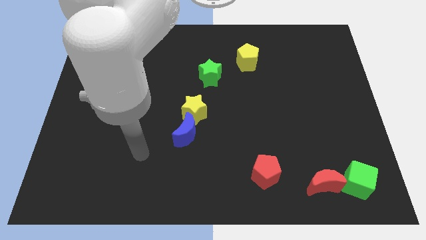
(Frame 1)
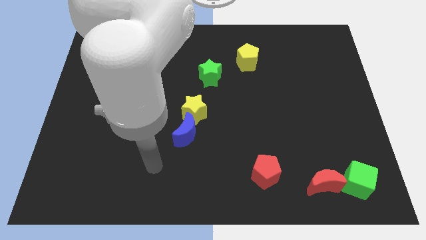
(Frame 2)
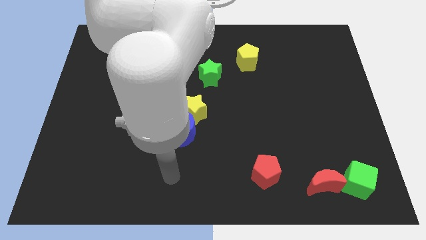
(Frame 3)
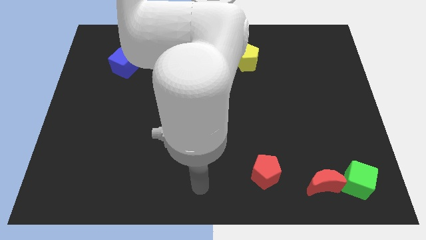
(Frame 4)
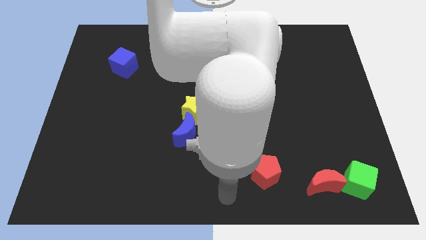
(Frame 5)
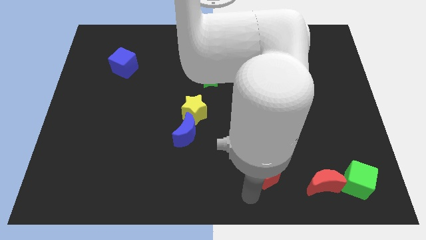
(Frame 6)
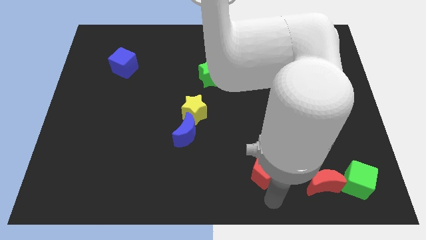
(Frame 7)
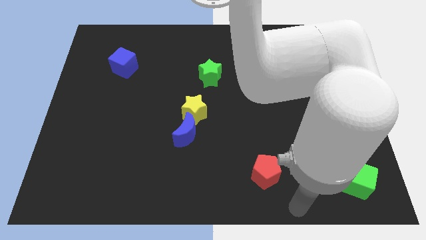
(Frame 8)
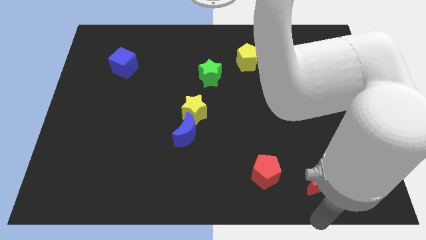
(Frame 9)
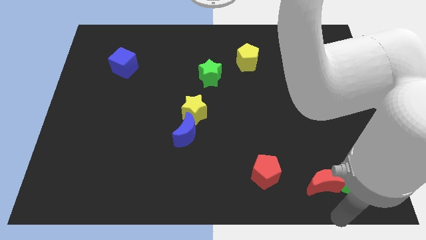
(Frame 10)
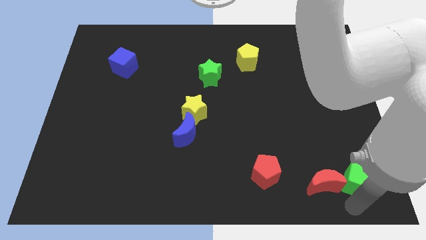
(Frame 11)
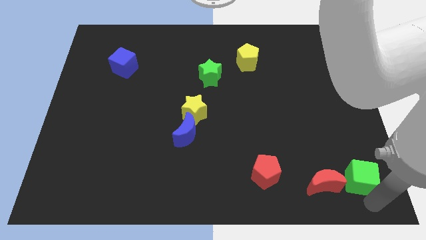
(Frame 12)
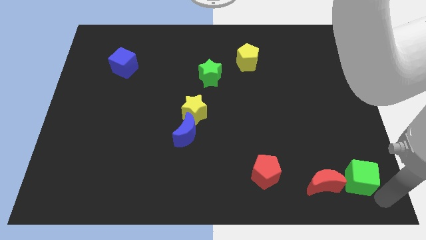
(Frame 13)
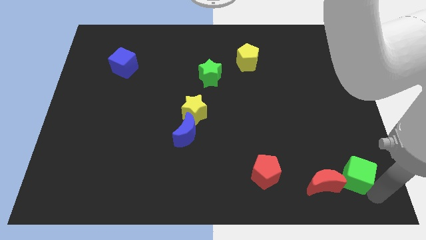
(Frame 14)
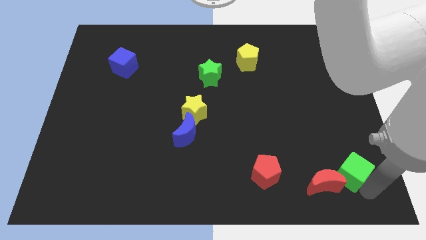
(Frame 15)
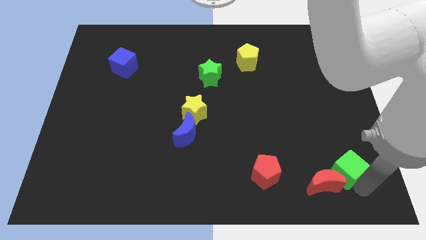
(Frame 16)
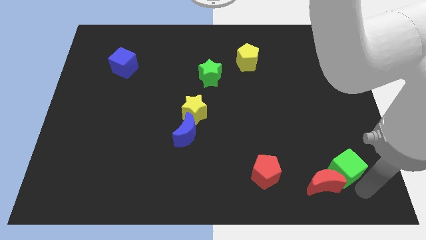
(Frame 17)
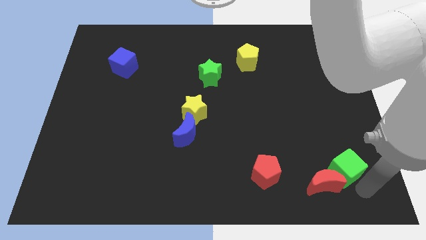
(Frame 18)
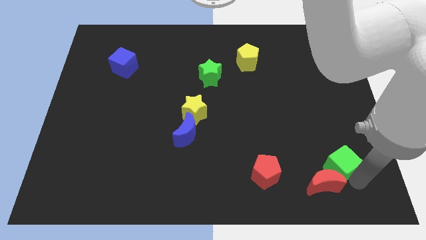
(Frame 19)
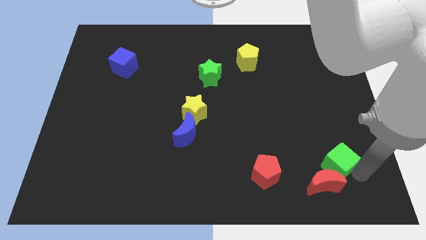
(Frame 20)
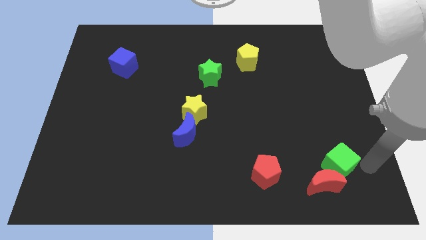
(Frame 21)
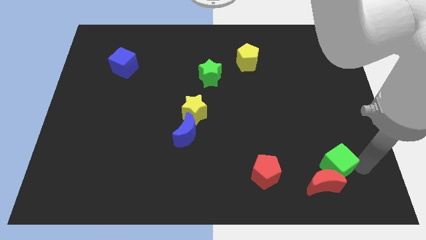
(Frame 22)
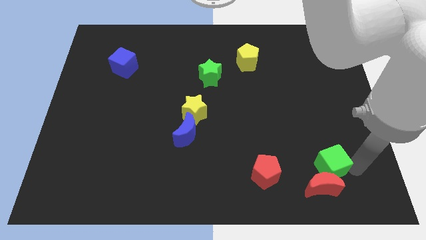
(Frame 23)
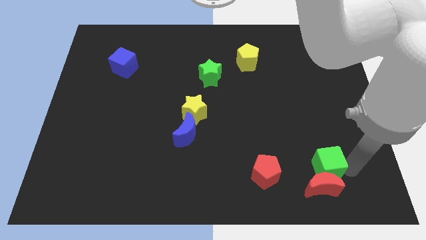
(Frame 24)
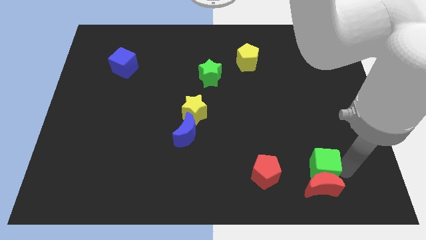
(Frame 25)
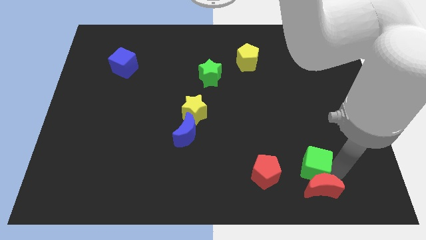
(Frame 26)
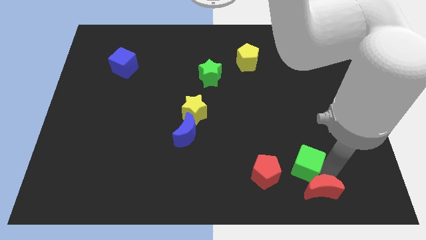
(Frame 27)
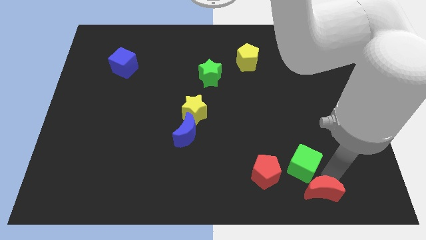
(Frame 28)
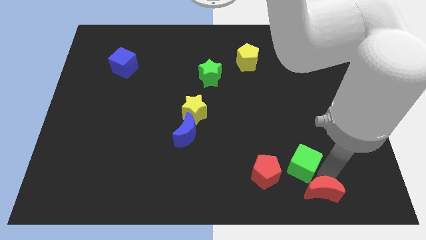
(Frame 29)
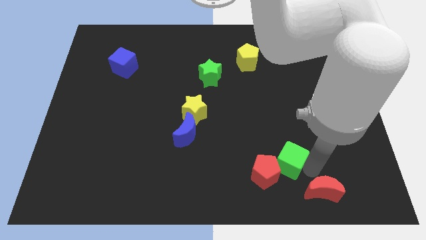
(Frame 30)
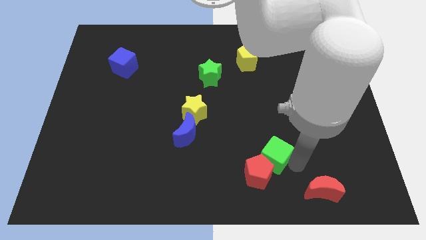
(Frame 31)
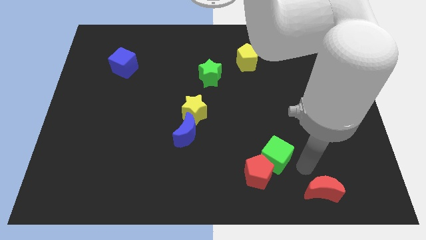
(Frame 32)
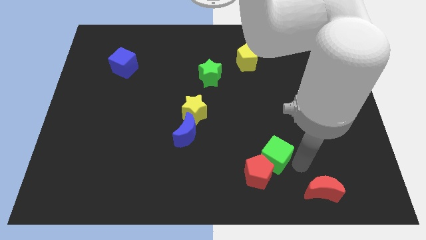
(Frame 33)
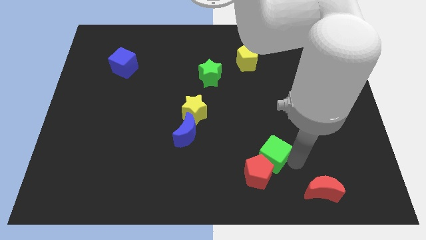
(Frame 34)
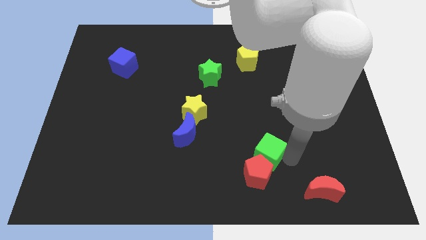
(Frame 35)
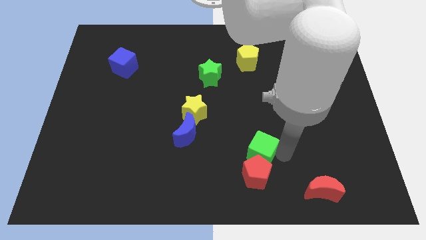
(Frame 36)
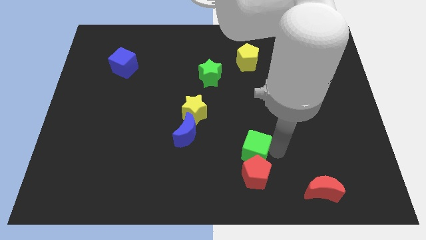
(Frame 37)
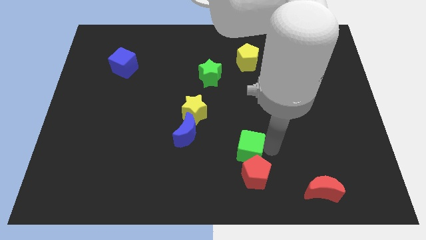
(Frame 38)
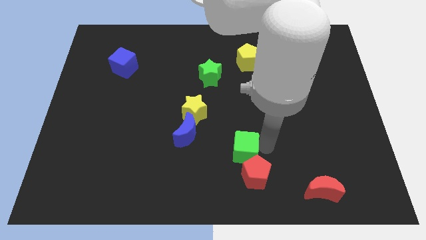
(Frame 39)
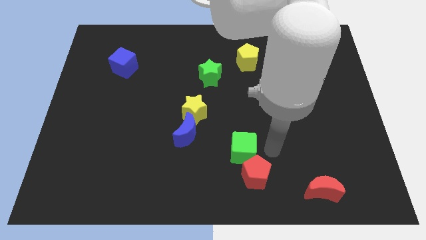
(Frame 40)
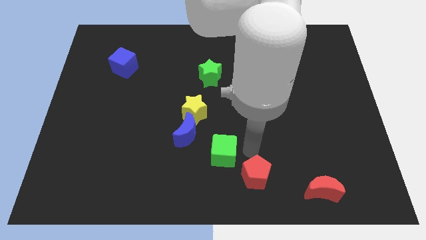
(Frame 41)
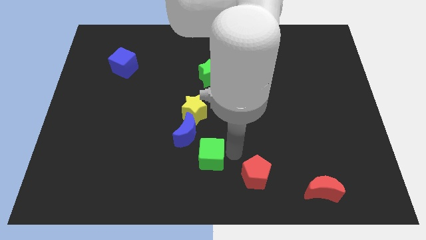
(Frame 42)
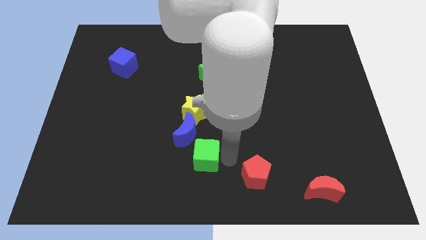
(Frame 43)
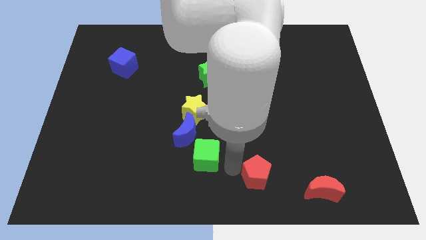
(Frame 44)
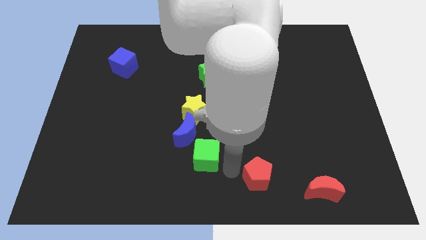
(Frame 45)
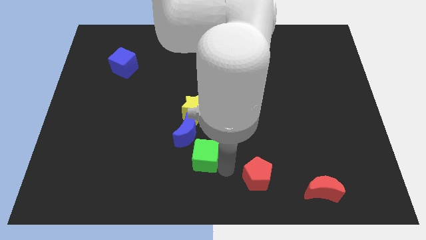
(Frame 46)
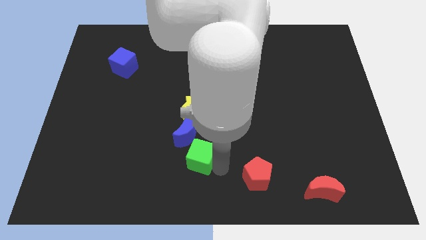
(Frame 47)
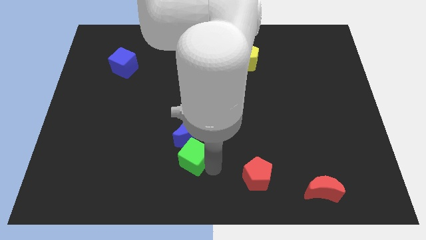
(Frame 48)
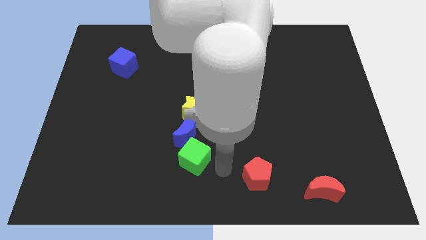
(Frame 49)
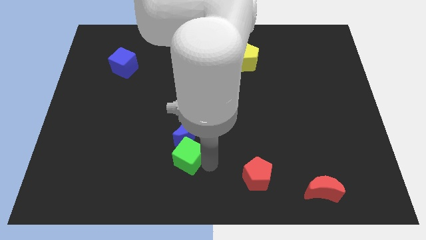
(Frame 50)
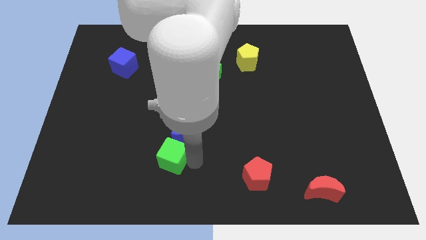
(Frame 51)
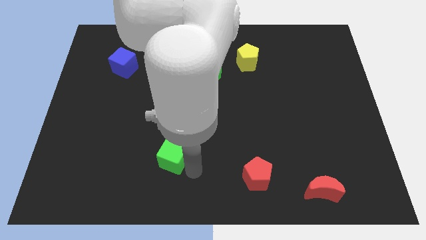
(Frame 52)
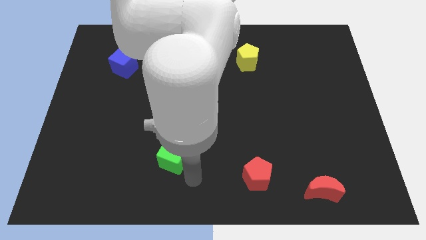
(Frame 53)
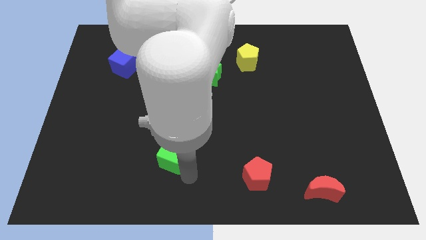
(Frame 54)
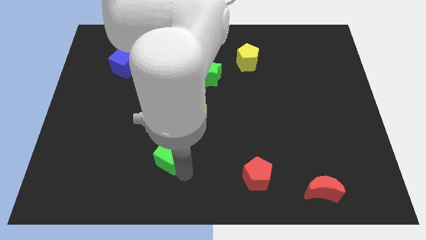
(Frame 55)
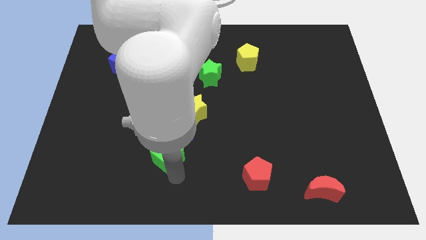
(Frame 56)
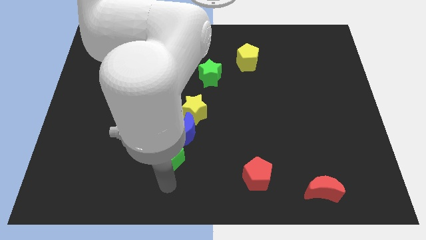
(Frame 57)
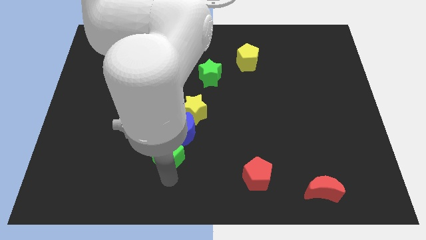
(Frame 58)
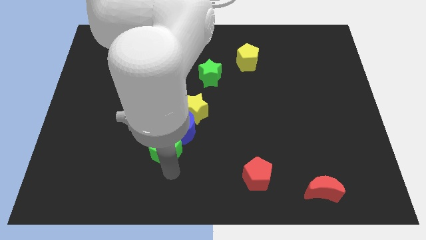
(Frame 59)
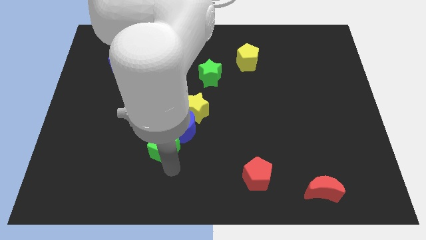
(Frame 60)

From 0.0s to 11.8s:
move the green cube to the bottom left side of the yellow star

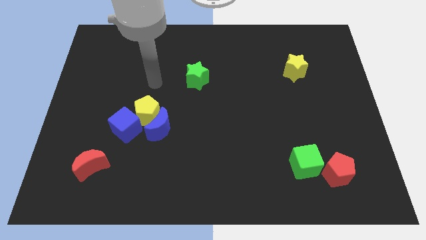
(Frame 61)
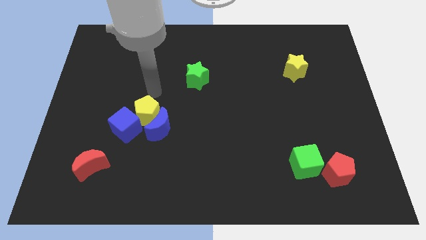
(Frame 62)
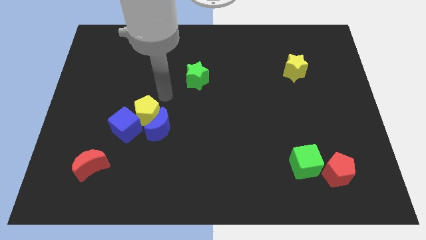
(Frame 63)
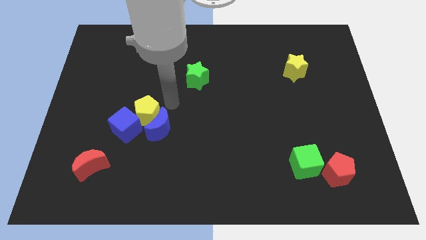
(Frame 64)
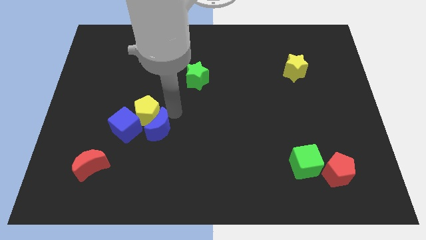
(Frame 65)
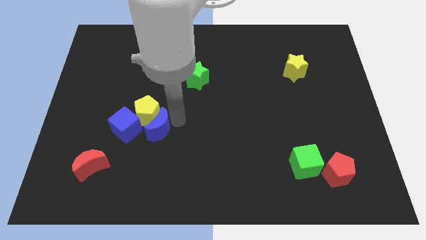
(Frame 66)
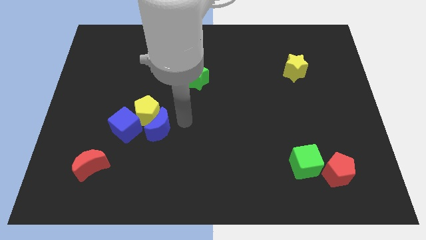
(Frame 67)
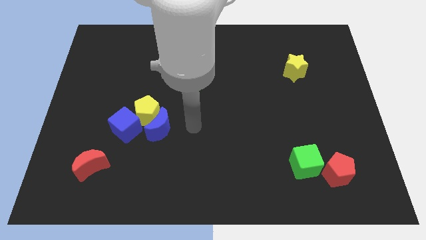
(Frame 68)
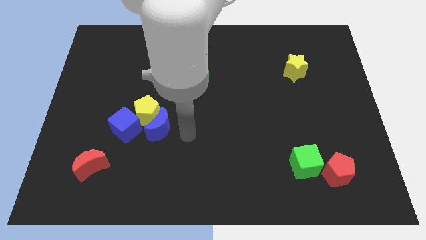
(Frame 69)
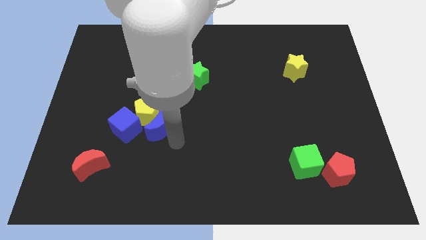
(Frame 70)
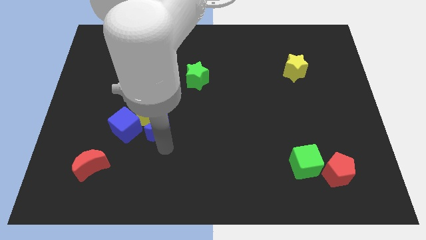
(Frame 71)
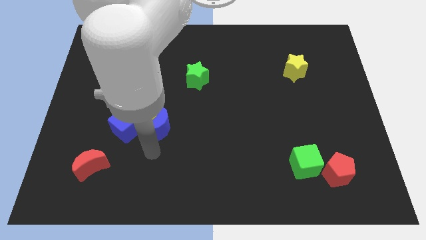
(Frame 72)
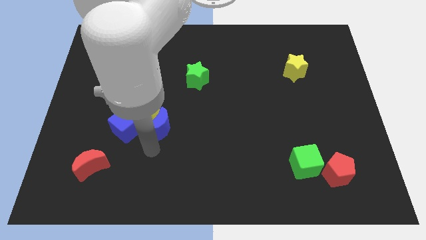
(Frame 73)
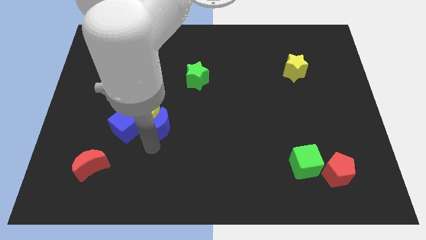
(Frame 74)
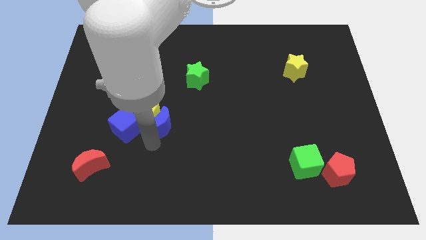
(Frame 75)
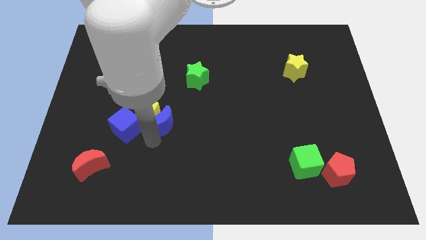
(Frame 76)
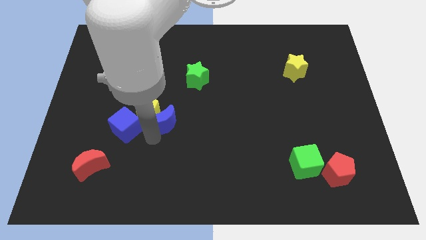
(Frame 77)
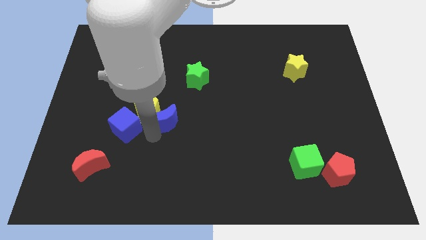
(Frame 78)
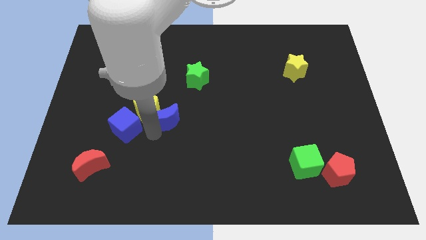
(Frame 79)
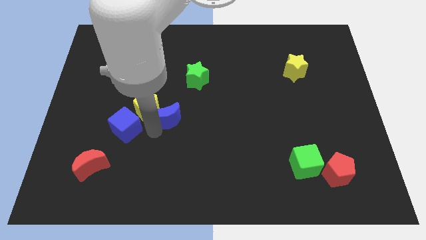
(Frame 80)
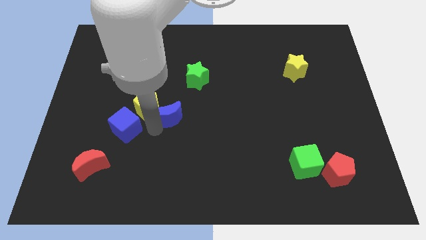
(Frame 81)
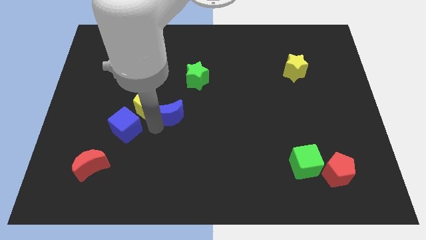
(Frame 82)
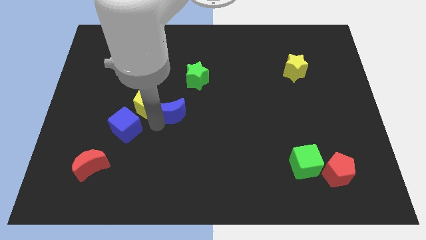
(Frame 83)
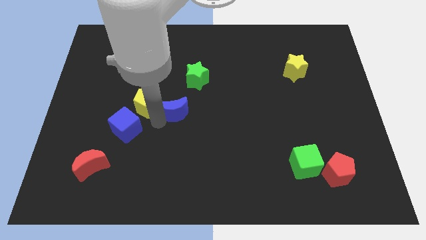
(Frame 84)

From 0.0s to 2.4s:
slide the blue moon to the bottom left side of the green star
